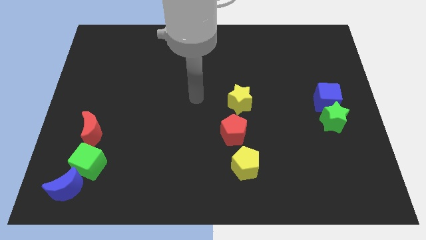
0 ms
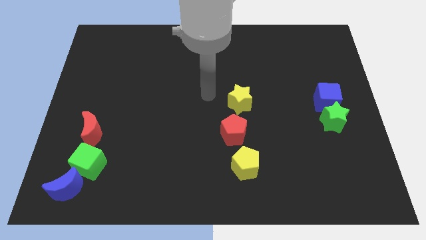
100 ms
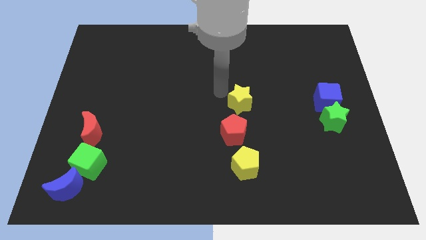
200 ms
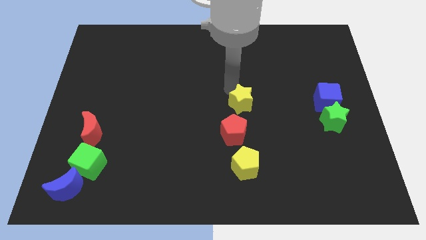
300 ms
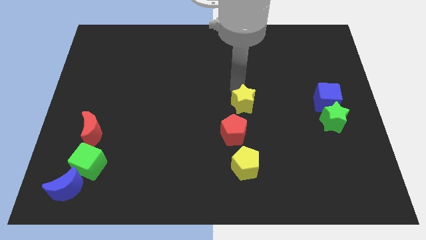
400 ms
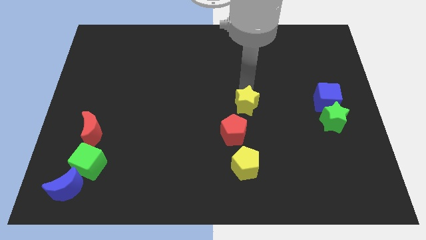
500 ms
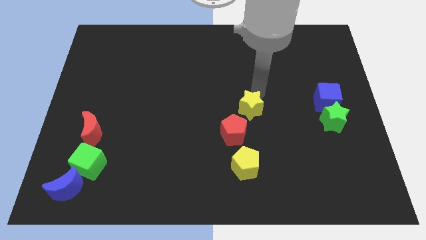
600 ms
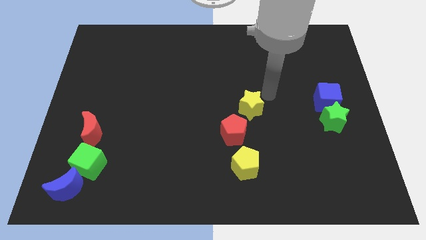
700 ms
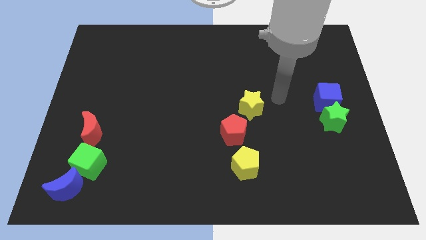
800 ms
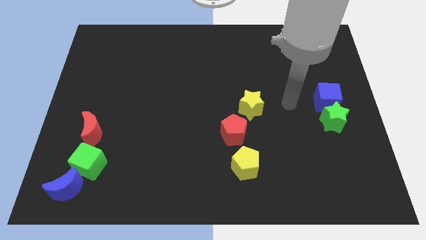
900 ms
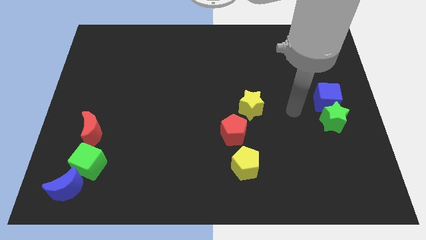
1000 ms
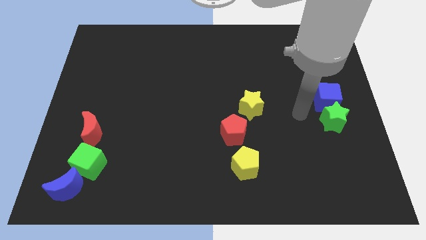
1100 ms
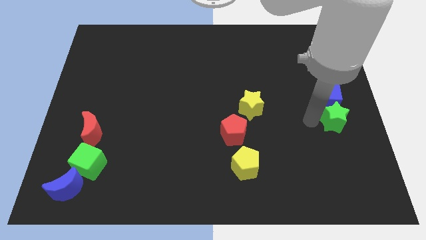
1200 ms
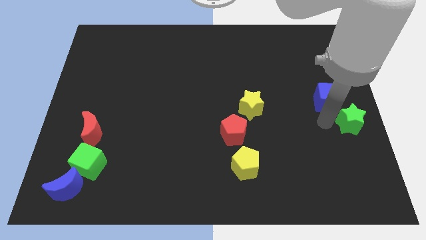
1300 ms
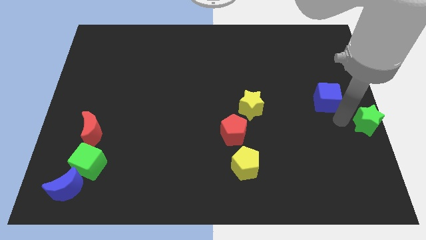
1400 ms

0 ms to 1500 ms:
move the blue cube away from the green star

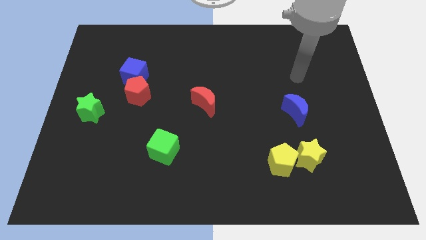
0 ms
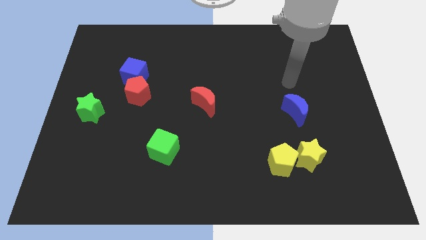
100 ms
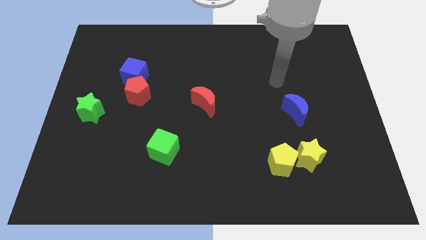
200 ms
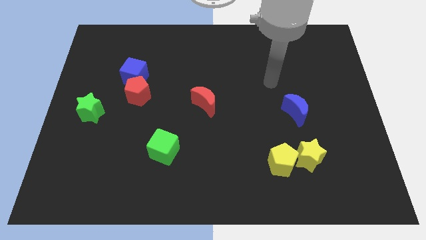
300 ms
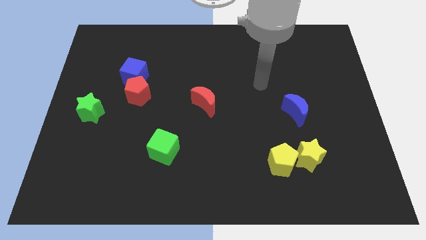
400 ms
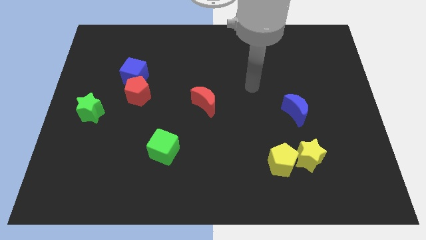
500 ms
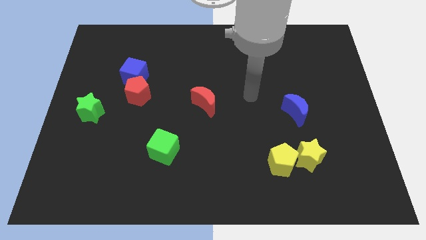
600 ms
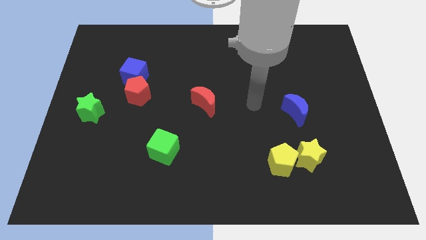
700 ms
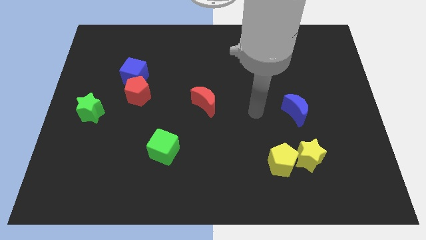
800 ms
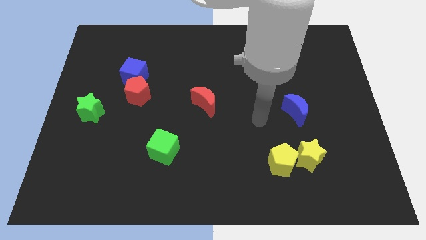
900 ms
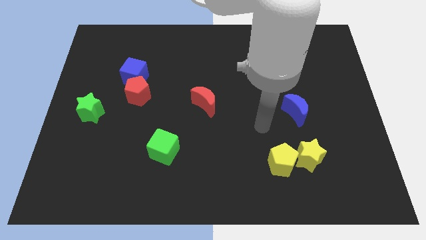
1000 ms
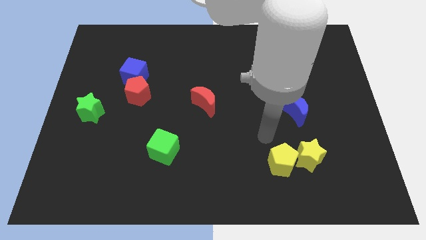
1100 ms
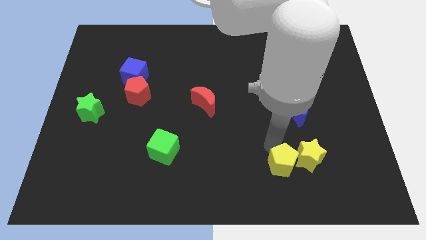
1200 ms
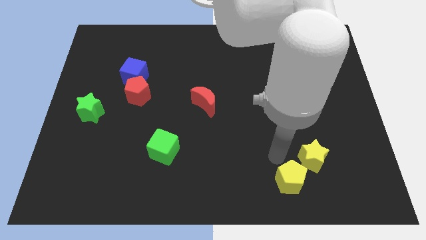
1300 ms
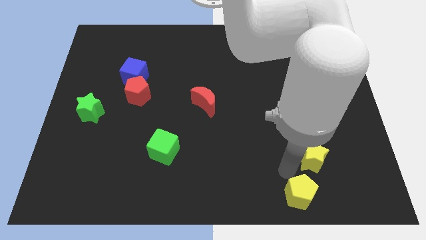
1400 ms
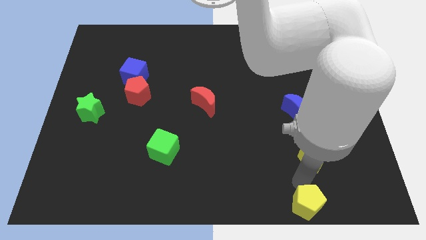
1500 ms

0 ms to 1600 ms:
separate the yellow star from the yellow pentagon

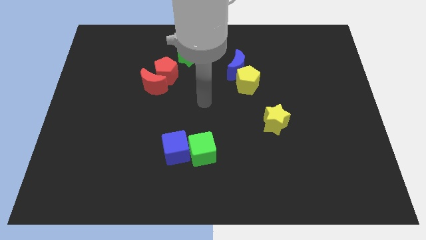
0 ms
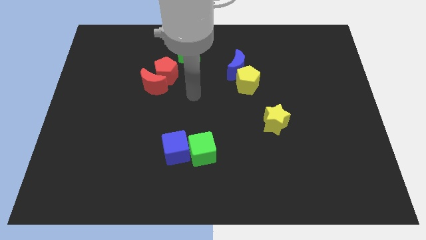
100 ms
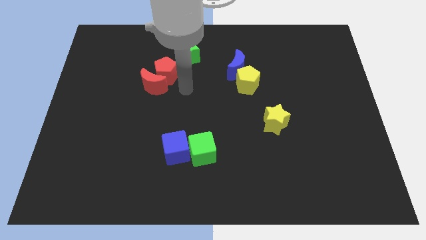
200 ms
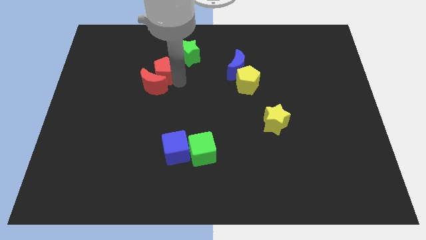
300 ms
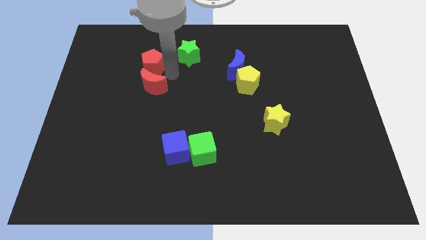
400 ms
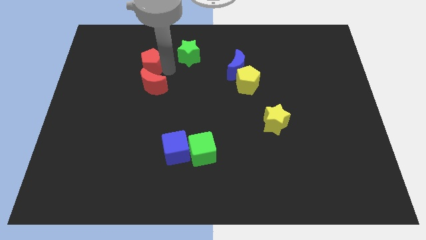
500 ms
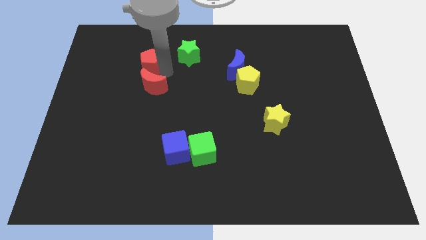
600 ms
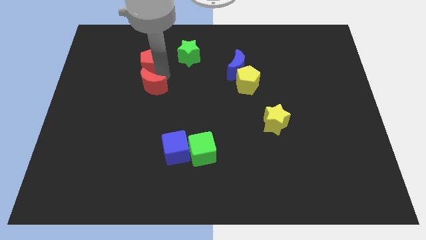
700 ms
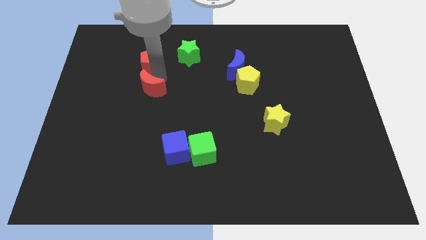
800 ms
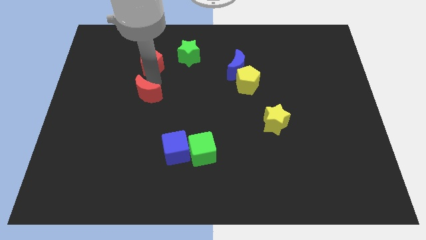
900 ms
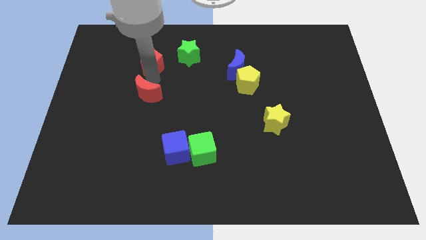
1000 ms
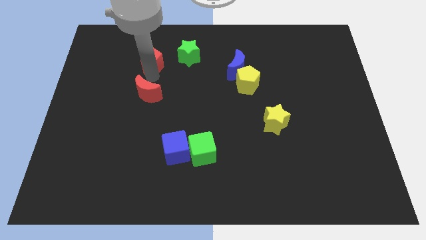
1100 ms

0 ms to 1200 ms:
separate the red moon from the red pentagon

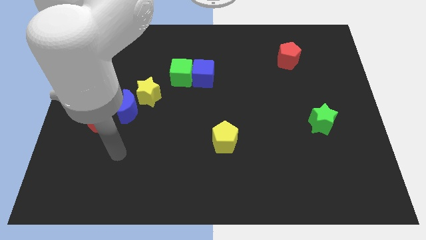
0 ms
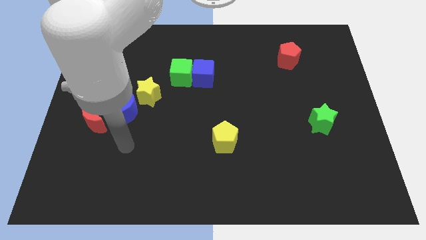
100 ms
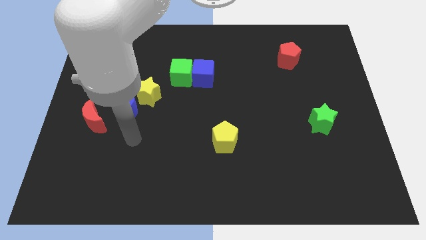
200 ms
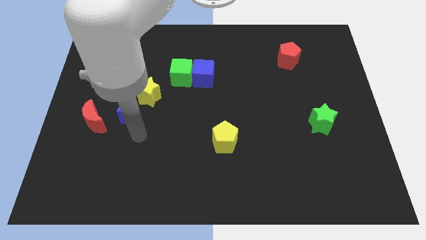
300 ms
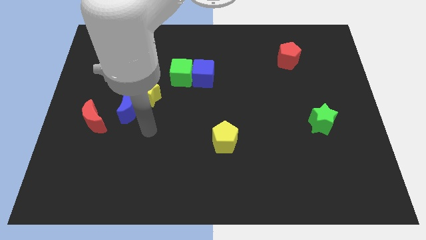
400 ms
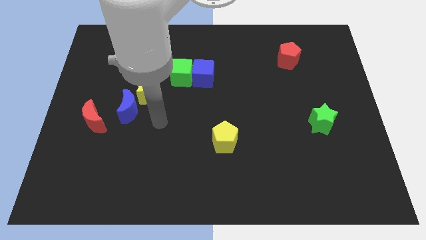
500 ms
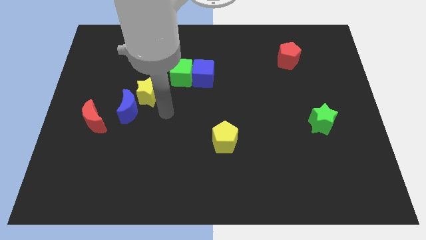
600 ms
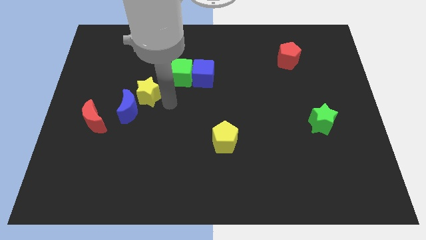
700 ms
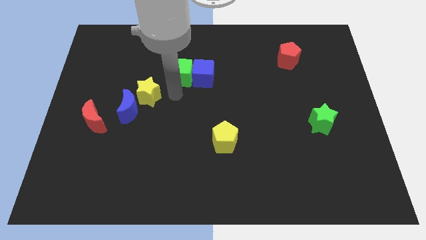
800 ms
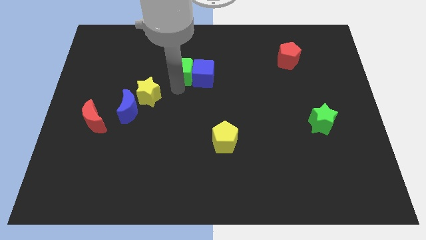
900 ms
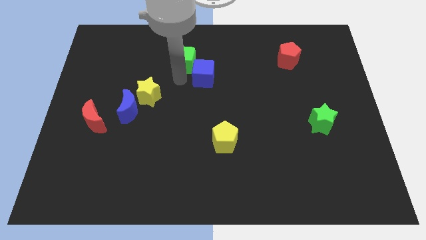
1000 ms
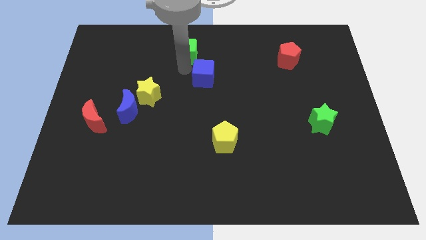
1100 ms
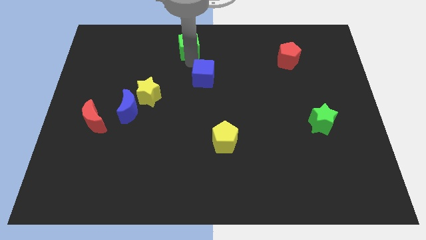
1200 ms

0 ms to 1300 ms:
pull the blue cube apart from the green cube

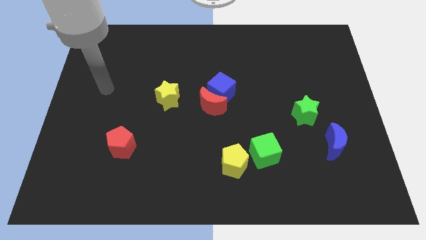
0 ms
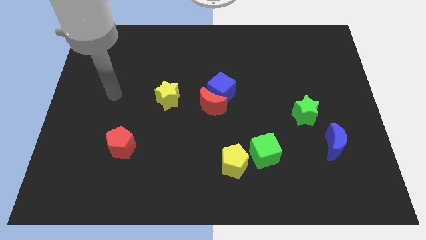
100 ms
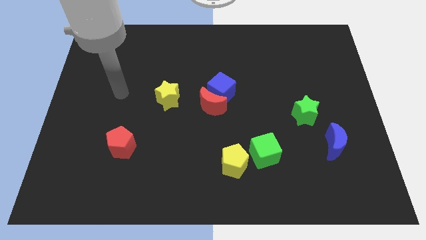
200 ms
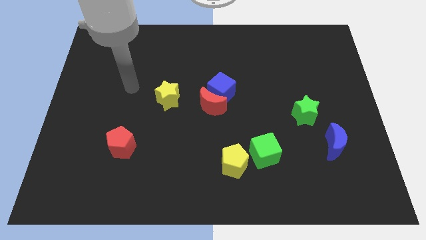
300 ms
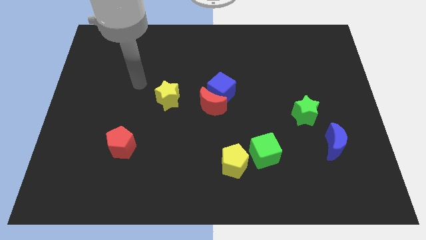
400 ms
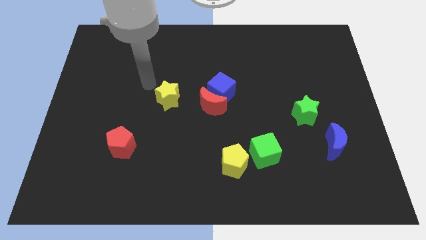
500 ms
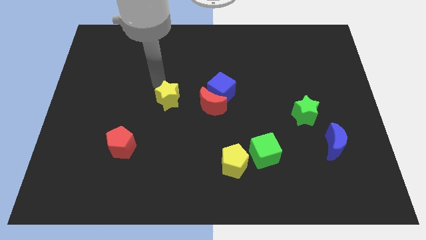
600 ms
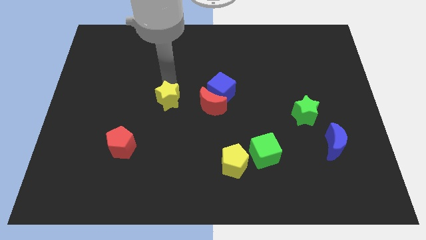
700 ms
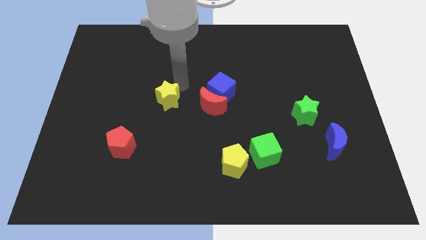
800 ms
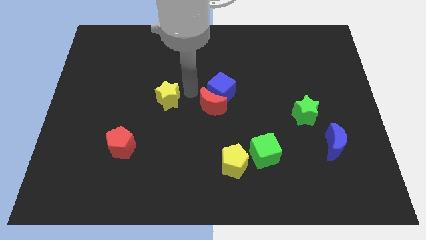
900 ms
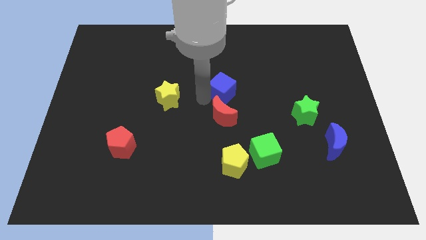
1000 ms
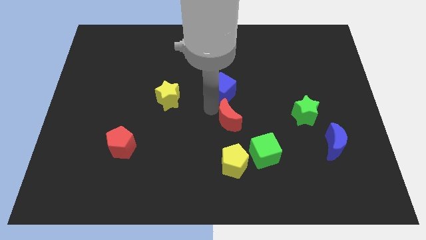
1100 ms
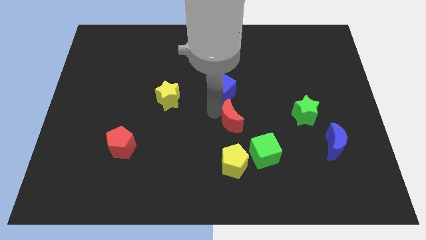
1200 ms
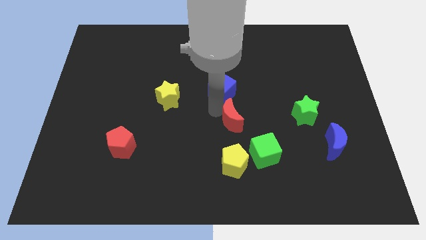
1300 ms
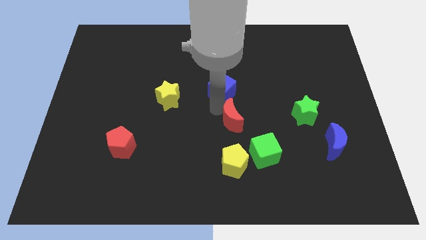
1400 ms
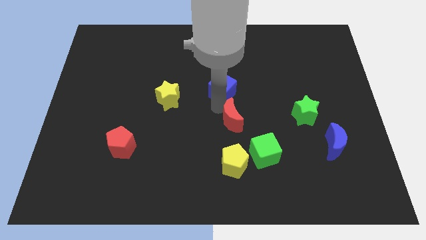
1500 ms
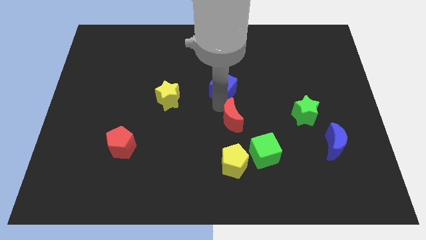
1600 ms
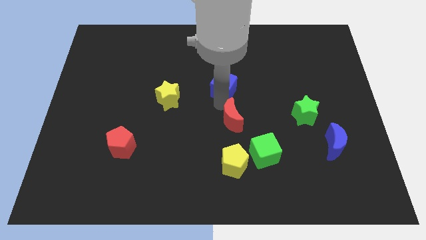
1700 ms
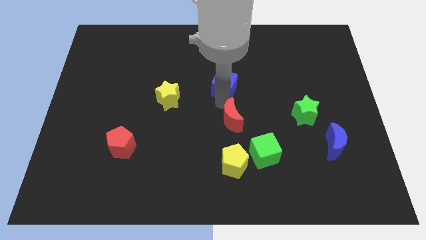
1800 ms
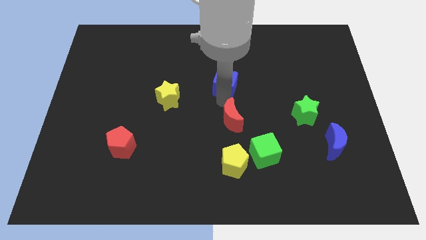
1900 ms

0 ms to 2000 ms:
separate the blue cube from the red moon

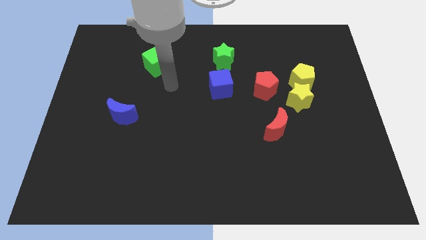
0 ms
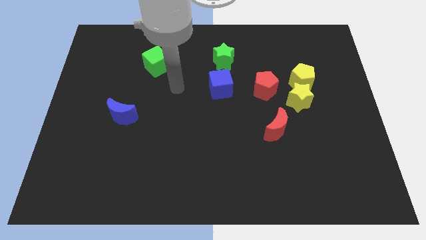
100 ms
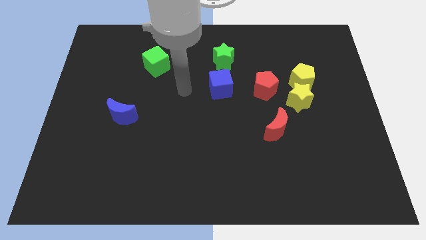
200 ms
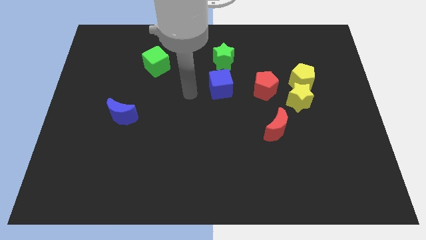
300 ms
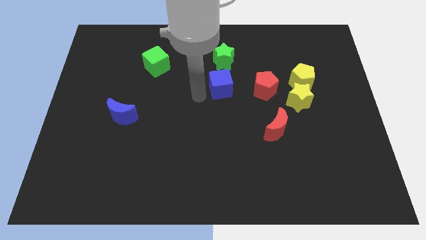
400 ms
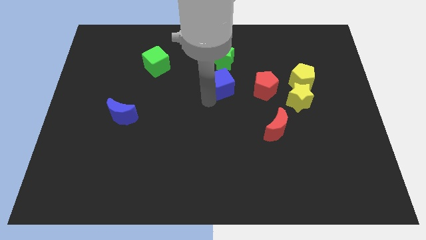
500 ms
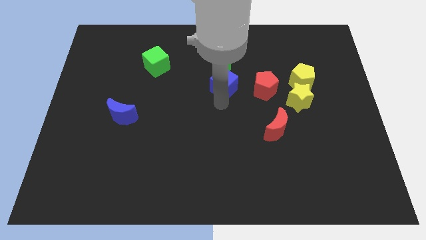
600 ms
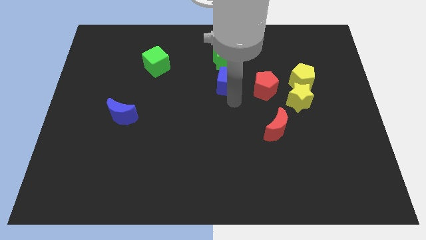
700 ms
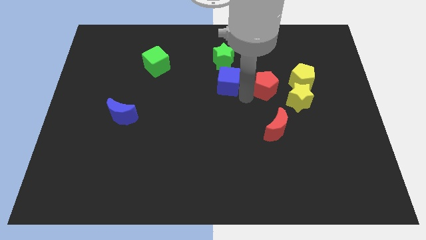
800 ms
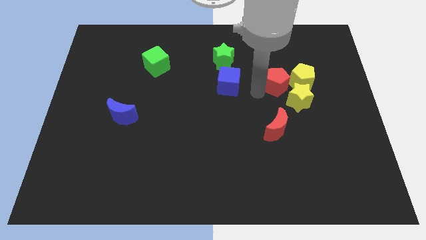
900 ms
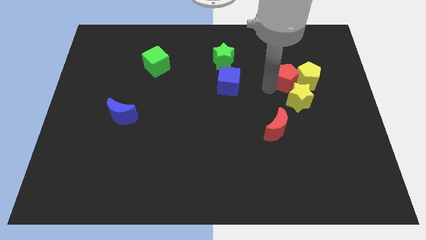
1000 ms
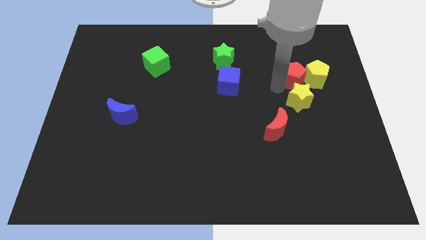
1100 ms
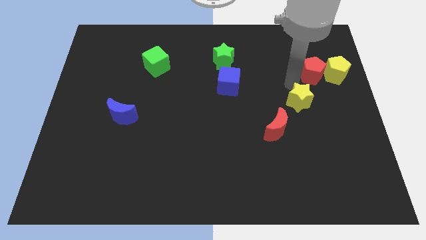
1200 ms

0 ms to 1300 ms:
pull the yellow star apart from the yellow pentagon and red pentagon

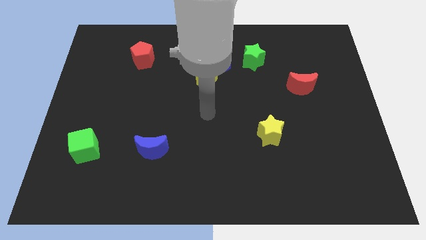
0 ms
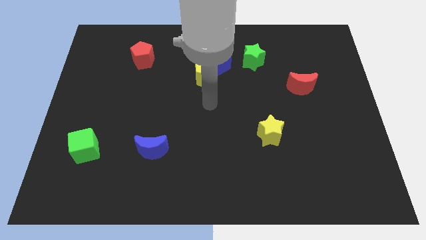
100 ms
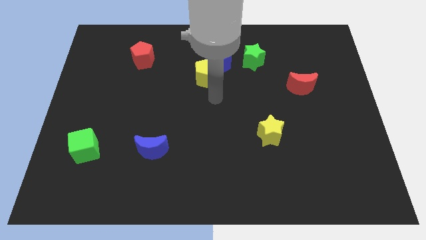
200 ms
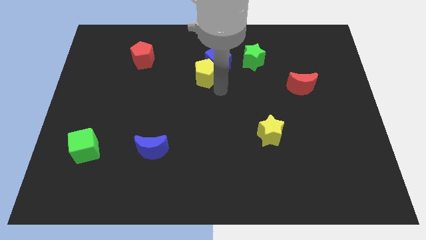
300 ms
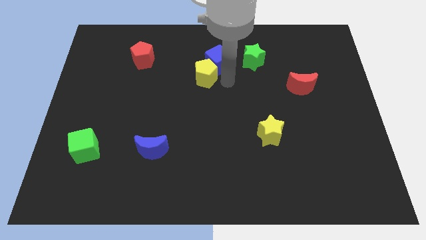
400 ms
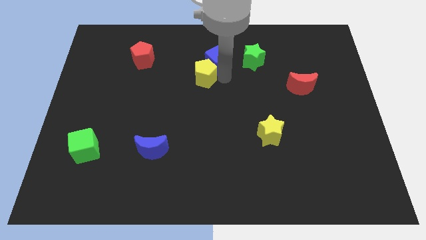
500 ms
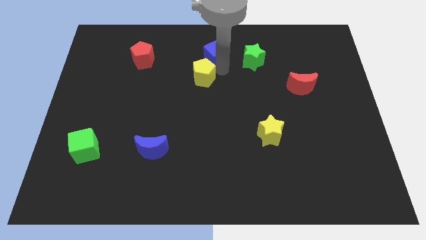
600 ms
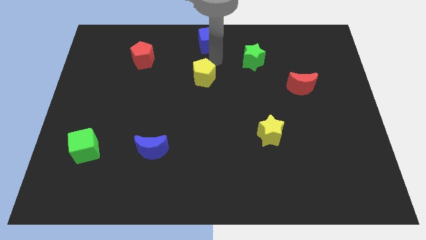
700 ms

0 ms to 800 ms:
separate the yellow pentagon from the blue cube
